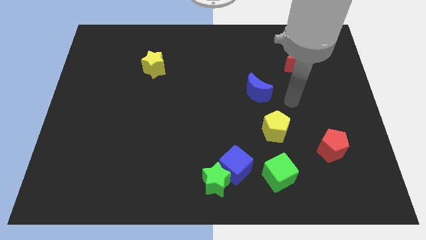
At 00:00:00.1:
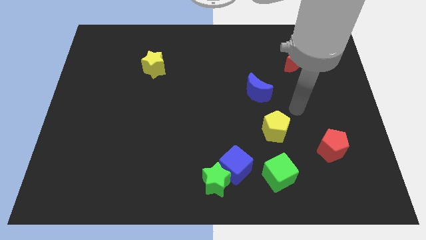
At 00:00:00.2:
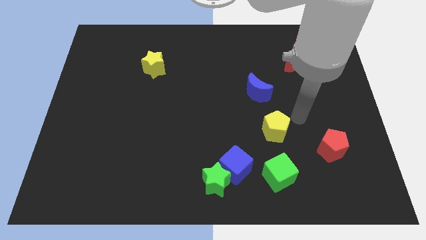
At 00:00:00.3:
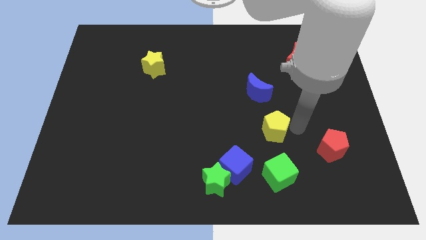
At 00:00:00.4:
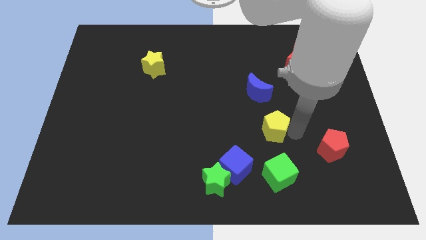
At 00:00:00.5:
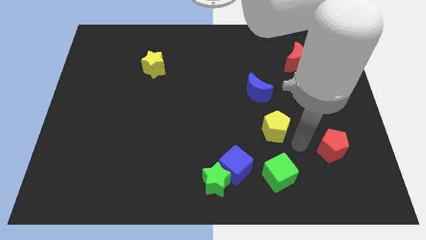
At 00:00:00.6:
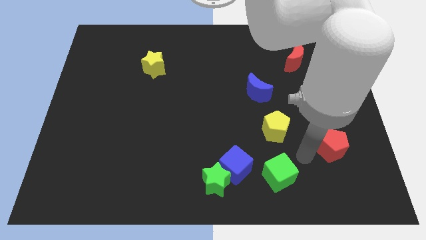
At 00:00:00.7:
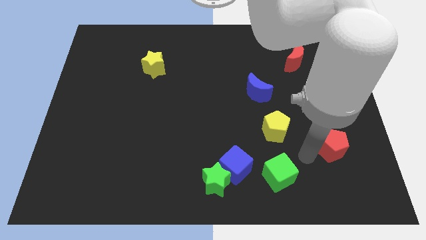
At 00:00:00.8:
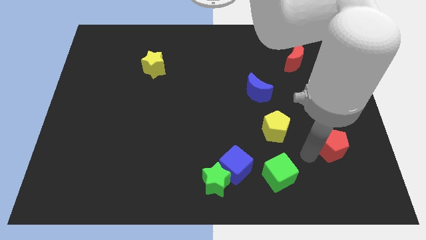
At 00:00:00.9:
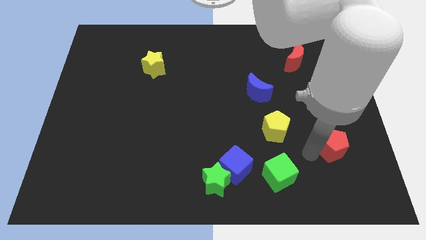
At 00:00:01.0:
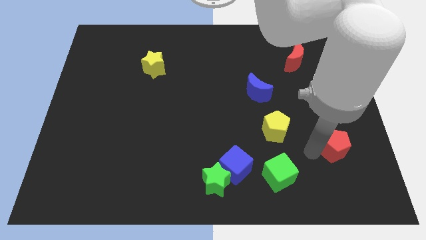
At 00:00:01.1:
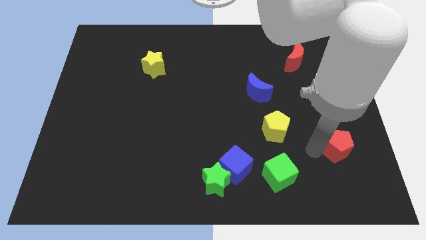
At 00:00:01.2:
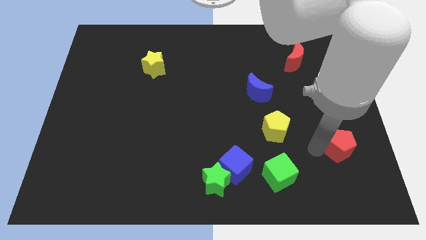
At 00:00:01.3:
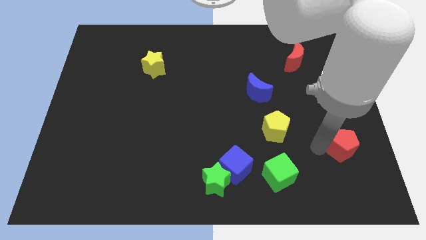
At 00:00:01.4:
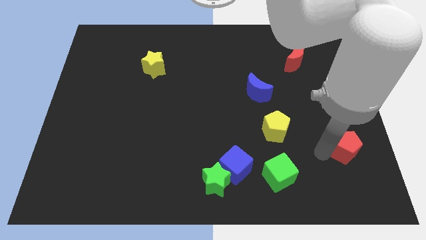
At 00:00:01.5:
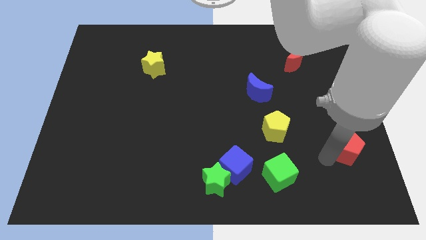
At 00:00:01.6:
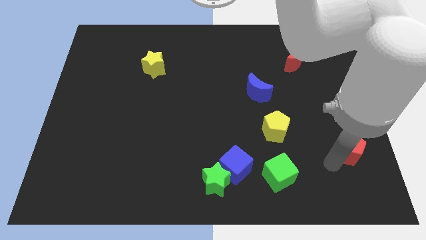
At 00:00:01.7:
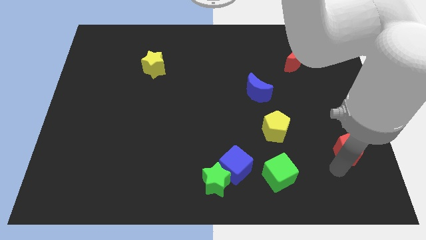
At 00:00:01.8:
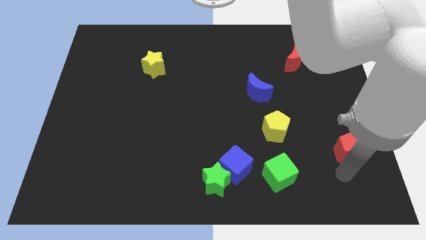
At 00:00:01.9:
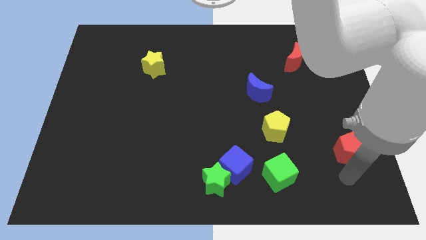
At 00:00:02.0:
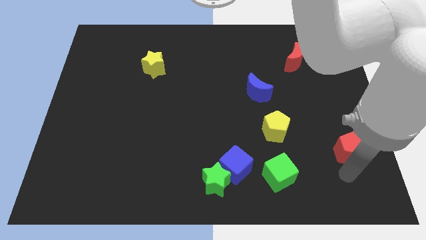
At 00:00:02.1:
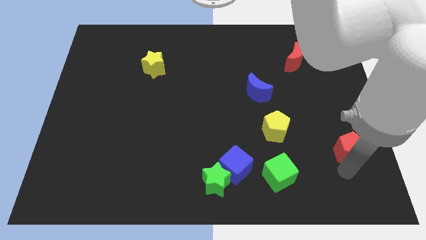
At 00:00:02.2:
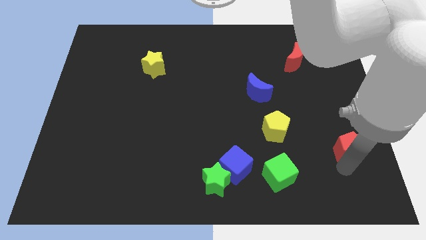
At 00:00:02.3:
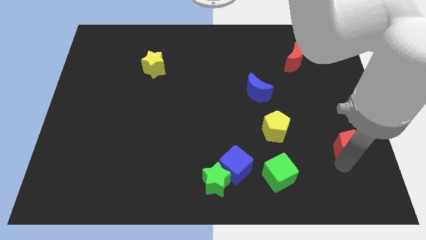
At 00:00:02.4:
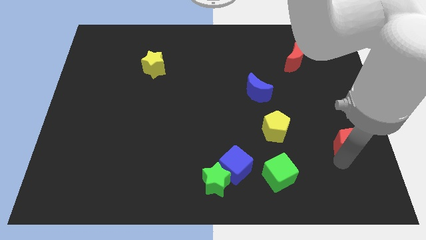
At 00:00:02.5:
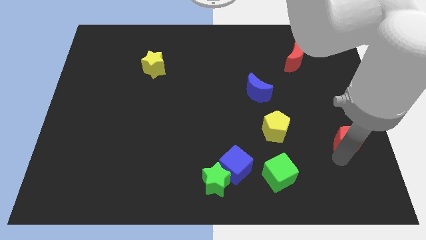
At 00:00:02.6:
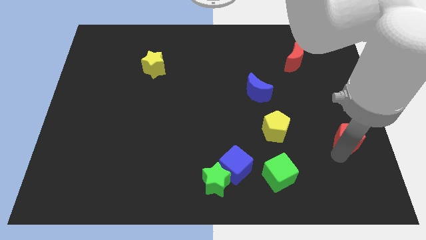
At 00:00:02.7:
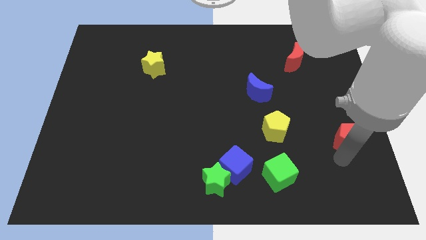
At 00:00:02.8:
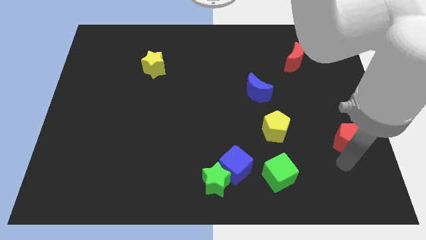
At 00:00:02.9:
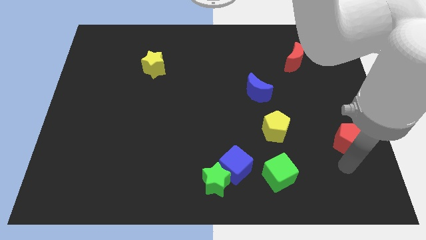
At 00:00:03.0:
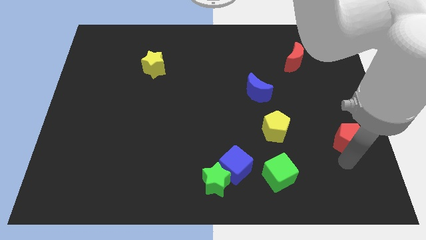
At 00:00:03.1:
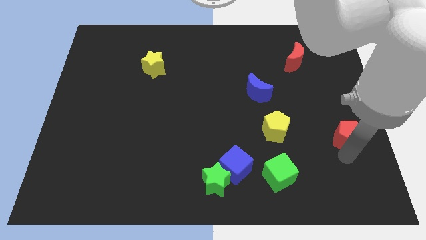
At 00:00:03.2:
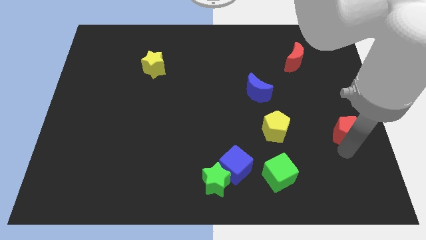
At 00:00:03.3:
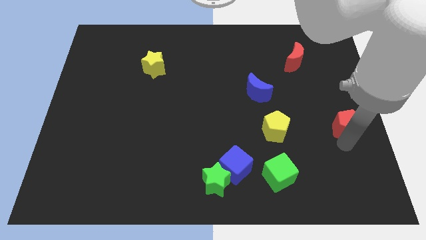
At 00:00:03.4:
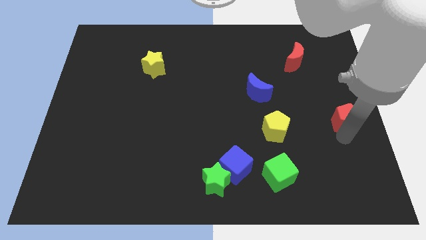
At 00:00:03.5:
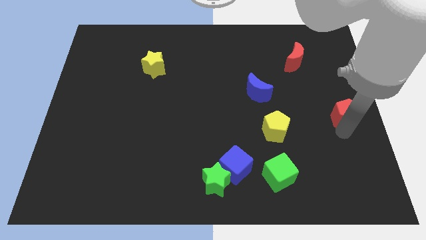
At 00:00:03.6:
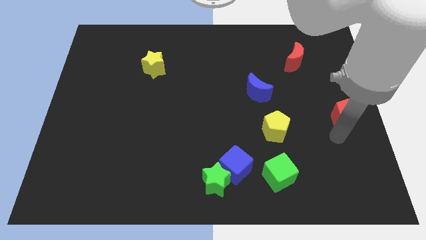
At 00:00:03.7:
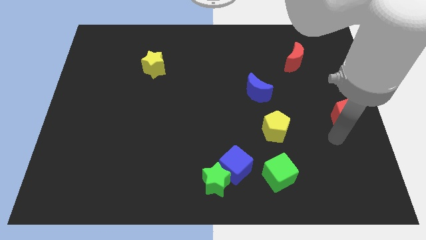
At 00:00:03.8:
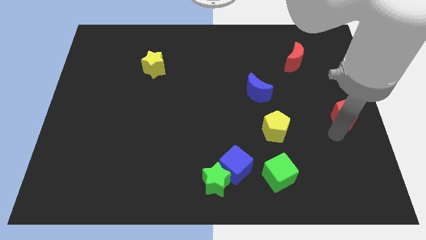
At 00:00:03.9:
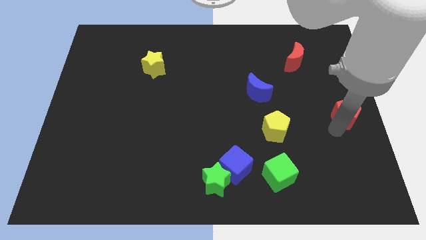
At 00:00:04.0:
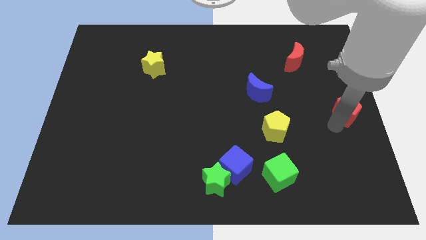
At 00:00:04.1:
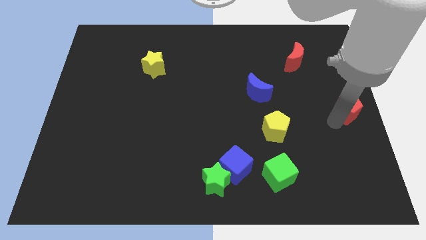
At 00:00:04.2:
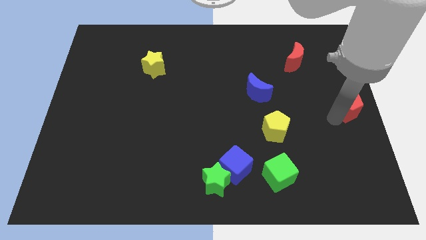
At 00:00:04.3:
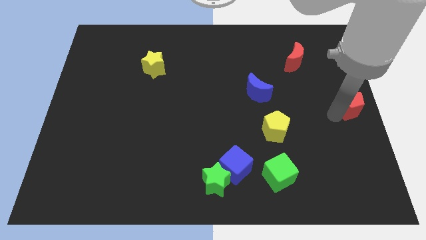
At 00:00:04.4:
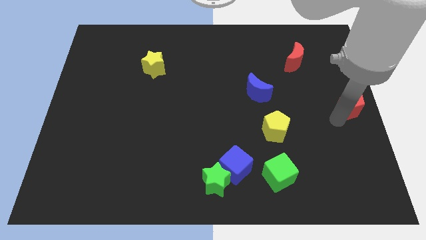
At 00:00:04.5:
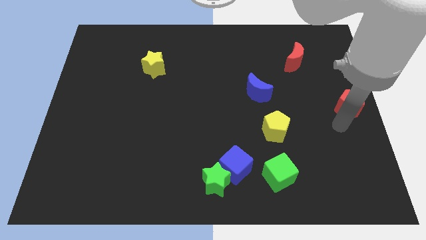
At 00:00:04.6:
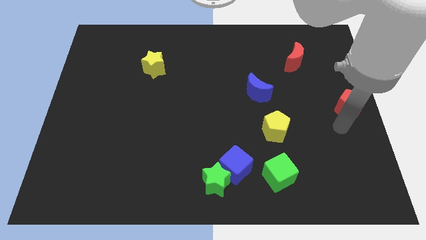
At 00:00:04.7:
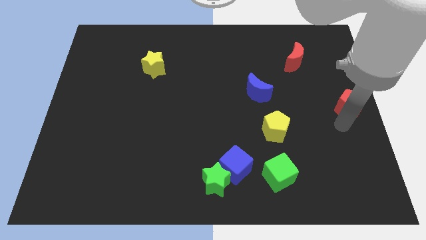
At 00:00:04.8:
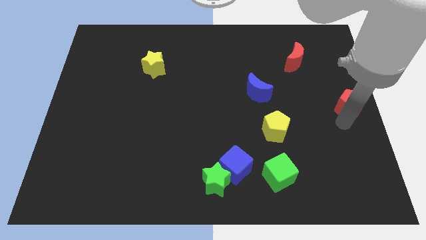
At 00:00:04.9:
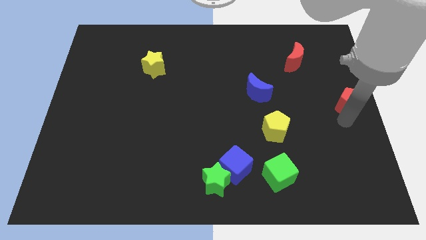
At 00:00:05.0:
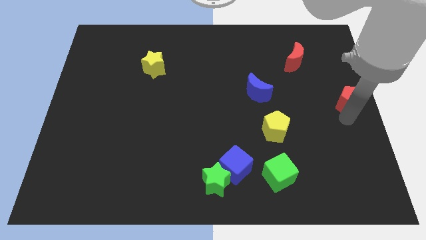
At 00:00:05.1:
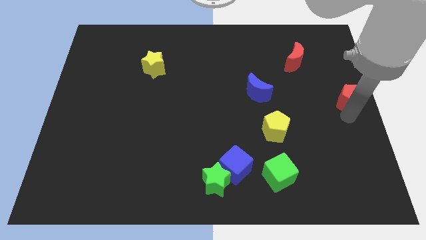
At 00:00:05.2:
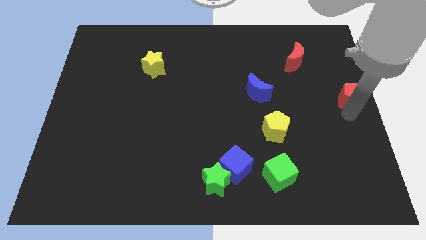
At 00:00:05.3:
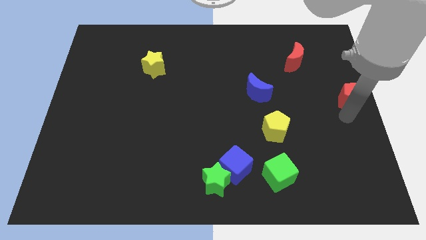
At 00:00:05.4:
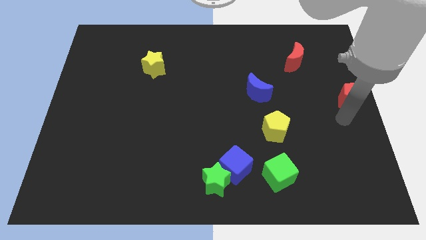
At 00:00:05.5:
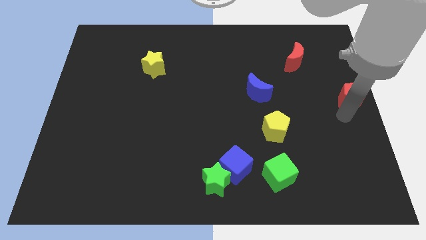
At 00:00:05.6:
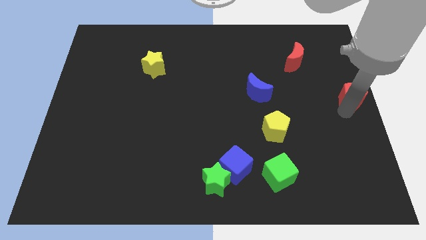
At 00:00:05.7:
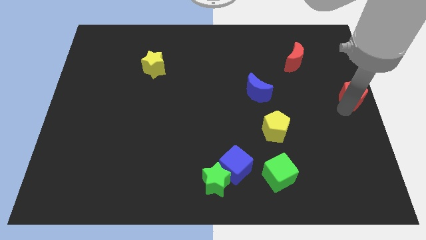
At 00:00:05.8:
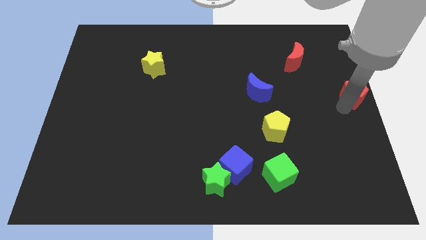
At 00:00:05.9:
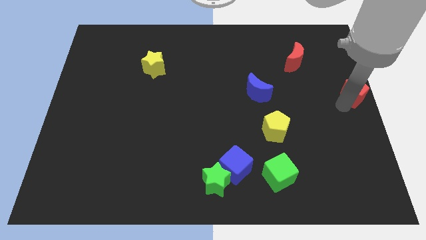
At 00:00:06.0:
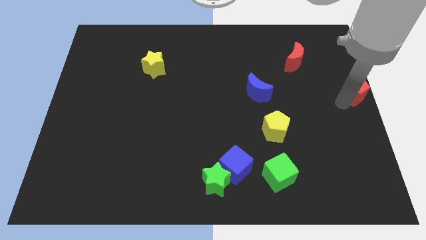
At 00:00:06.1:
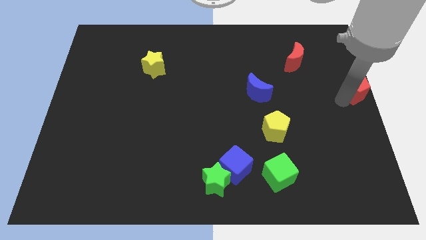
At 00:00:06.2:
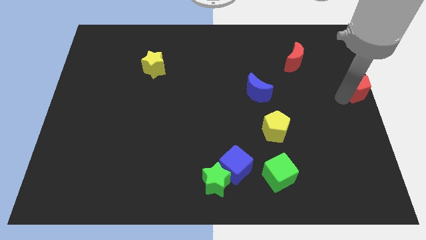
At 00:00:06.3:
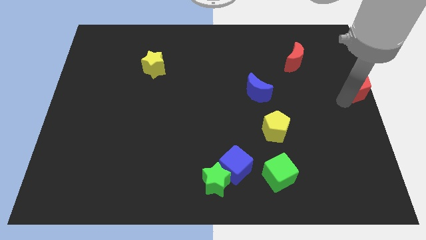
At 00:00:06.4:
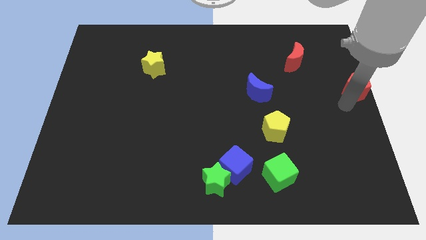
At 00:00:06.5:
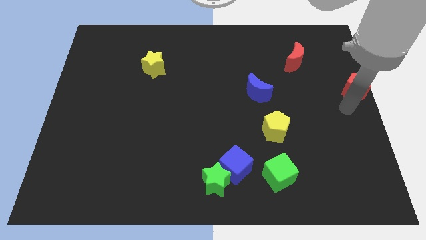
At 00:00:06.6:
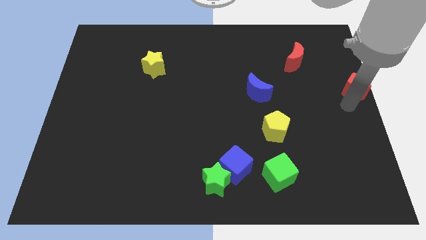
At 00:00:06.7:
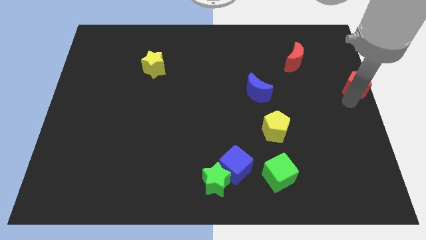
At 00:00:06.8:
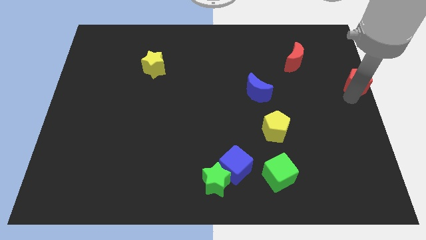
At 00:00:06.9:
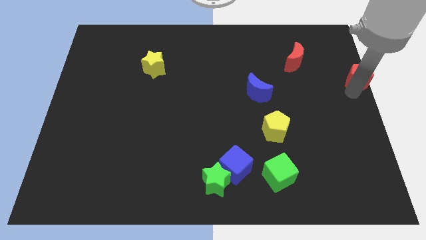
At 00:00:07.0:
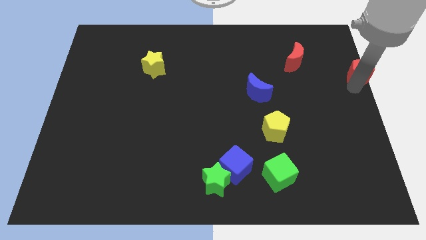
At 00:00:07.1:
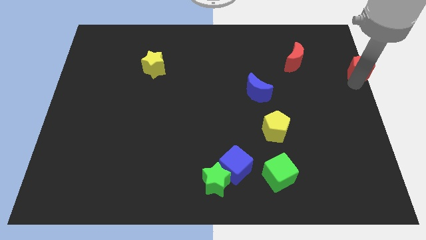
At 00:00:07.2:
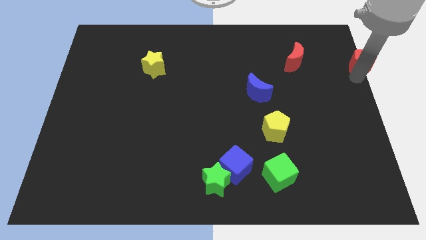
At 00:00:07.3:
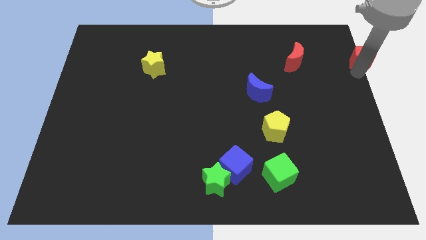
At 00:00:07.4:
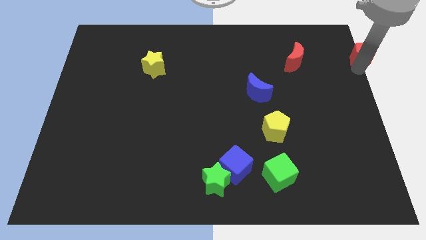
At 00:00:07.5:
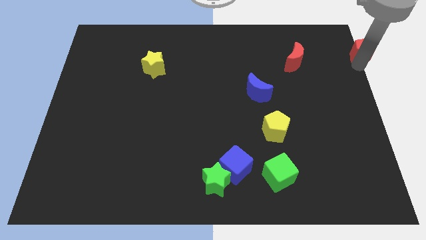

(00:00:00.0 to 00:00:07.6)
push the red pentagon to the top right
